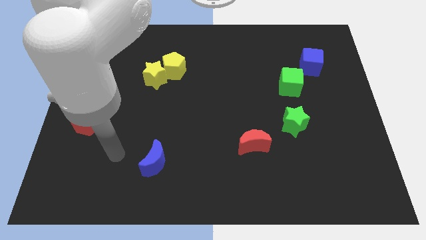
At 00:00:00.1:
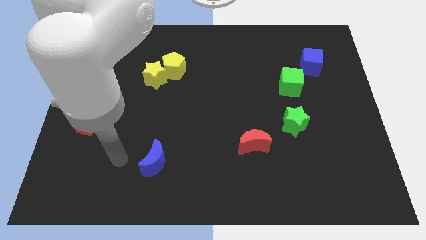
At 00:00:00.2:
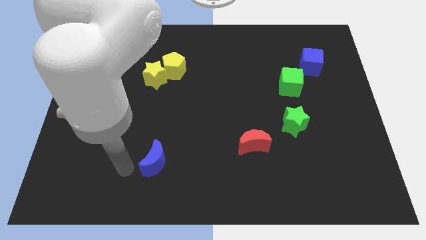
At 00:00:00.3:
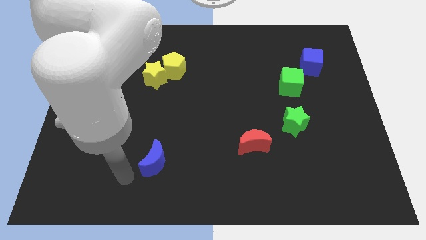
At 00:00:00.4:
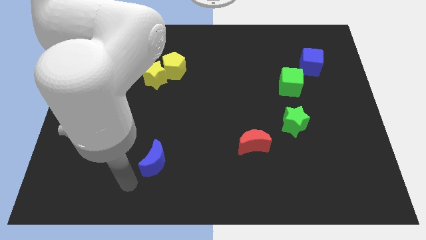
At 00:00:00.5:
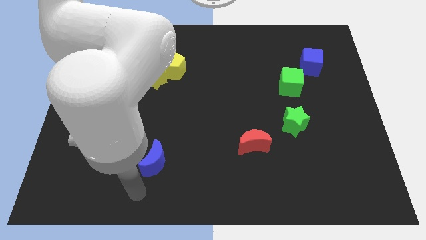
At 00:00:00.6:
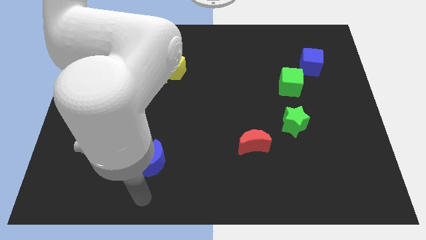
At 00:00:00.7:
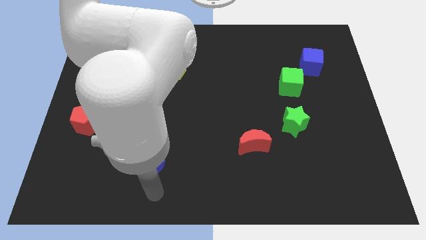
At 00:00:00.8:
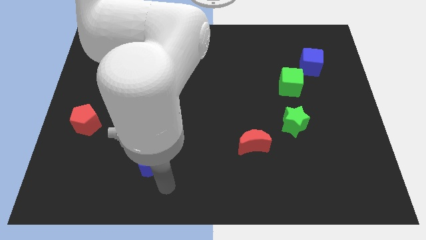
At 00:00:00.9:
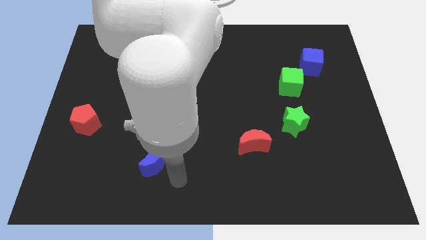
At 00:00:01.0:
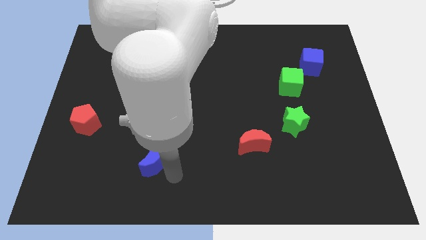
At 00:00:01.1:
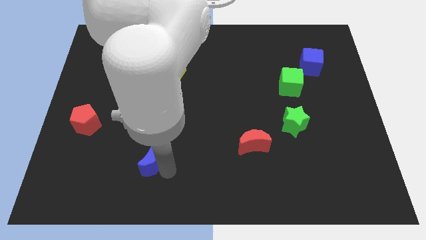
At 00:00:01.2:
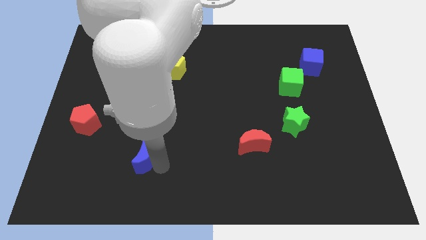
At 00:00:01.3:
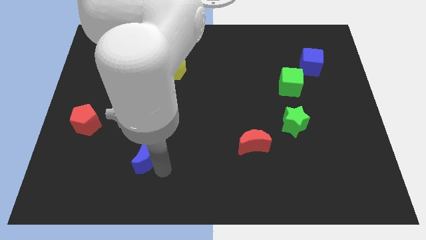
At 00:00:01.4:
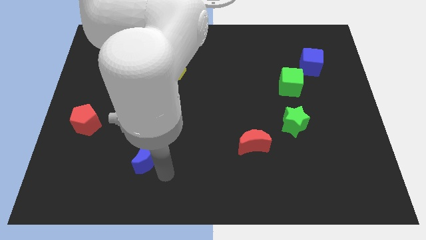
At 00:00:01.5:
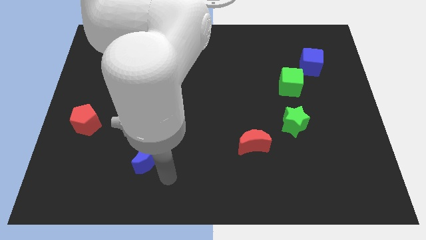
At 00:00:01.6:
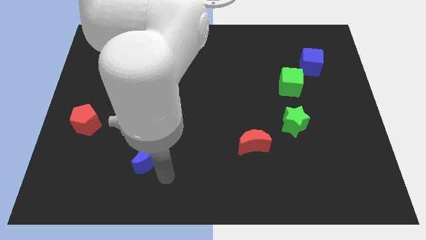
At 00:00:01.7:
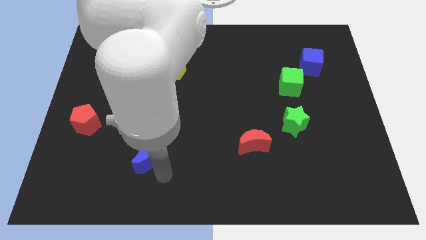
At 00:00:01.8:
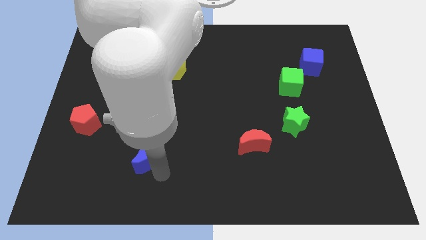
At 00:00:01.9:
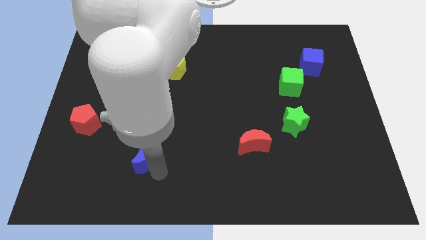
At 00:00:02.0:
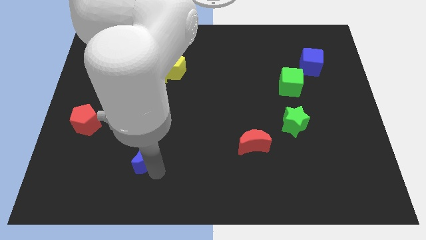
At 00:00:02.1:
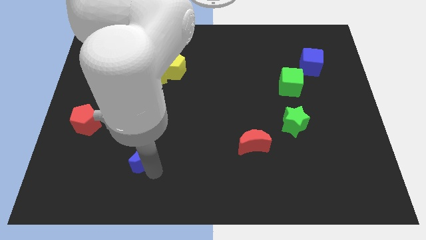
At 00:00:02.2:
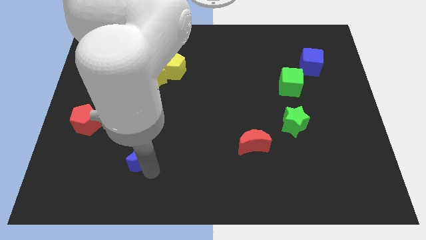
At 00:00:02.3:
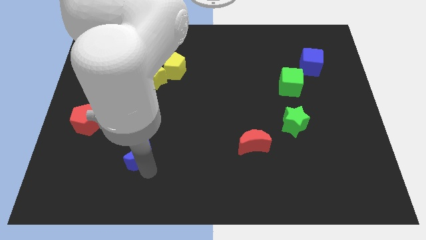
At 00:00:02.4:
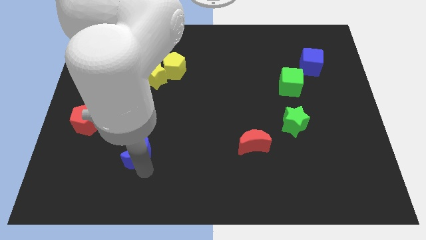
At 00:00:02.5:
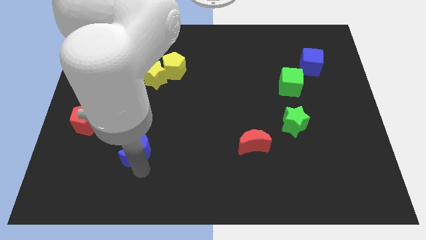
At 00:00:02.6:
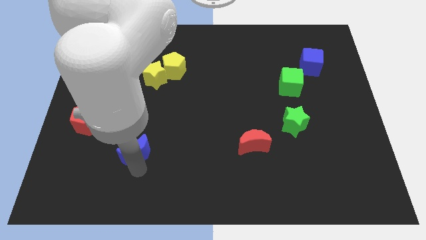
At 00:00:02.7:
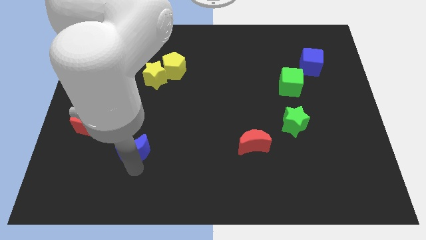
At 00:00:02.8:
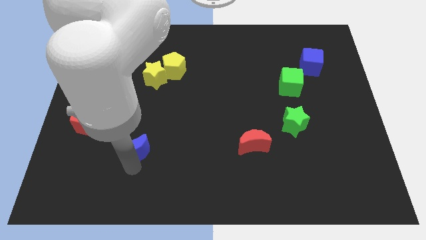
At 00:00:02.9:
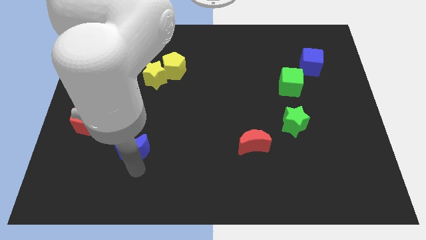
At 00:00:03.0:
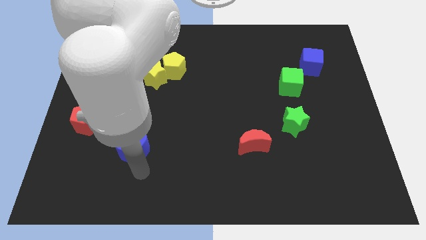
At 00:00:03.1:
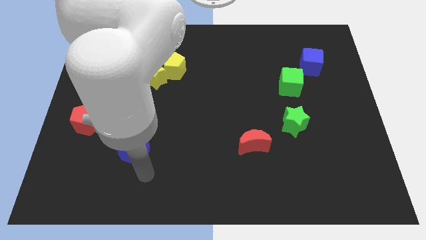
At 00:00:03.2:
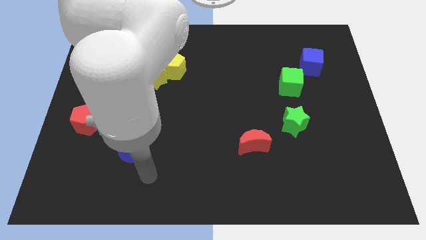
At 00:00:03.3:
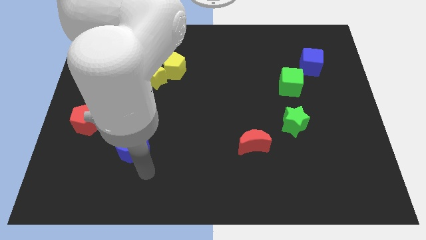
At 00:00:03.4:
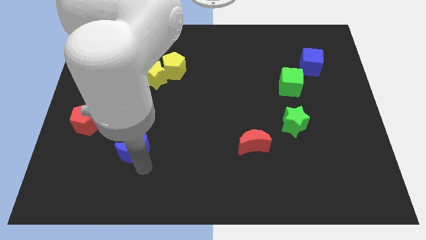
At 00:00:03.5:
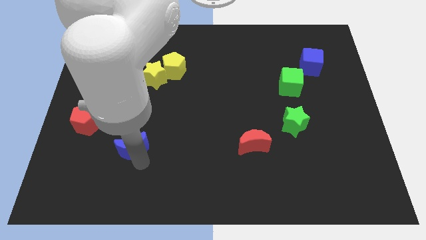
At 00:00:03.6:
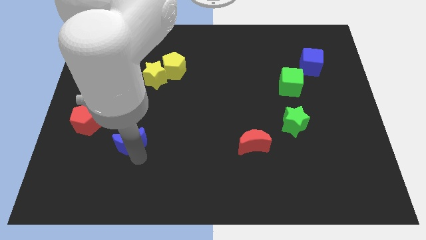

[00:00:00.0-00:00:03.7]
move the blue moon diagonally up and left somewhat

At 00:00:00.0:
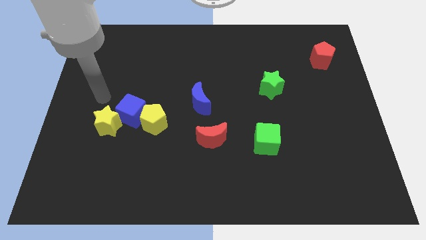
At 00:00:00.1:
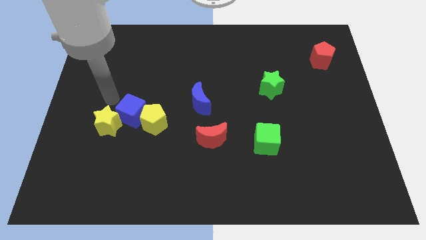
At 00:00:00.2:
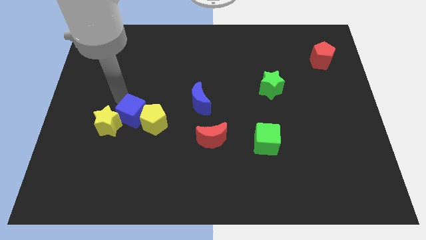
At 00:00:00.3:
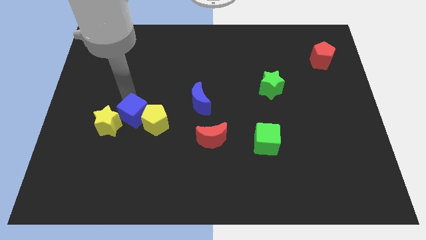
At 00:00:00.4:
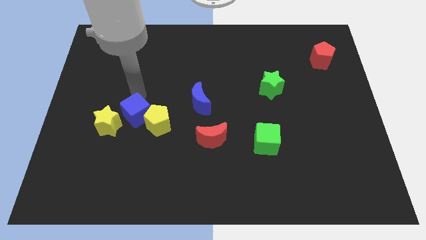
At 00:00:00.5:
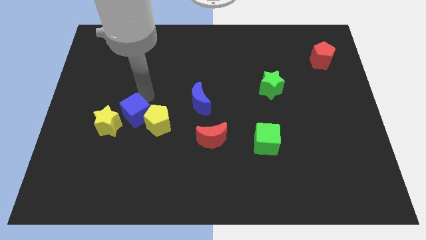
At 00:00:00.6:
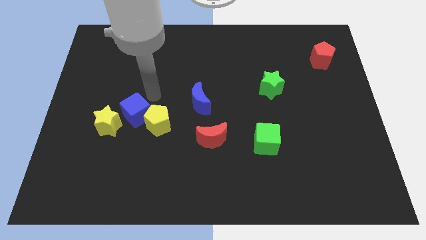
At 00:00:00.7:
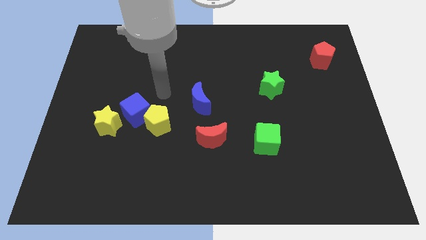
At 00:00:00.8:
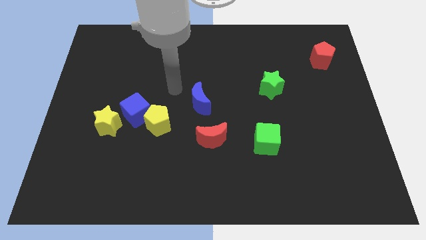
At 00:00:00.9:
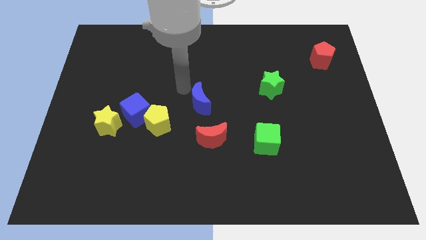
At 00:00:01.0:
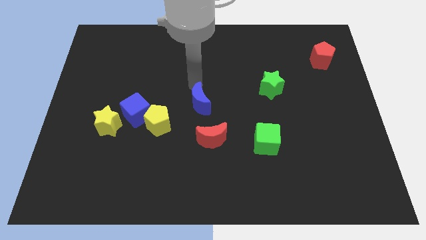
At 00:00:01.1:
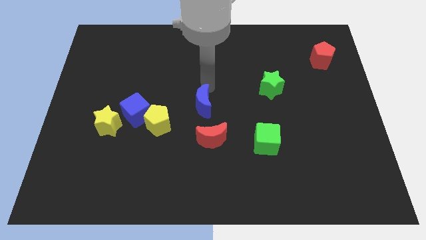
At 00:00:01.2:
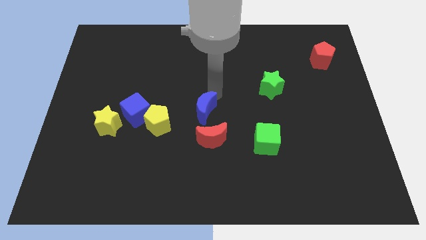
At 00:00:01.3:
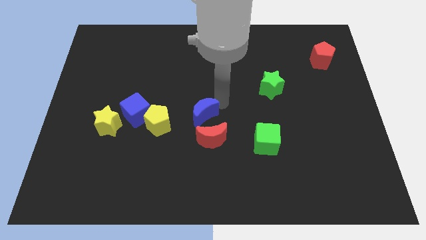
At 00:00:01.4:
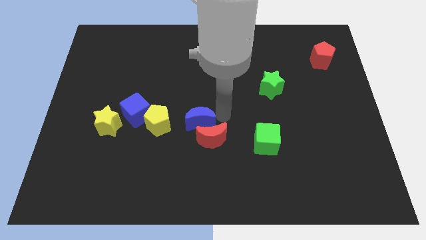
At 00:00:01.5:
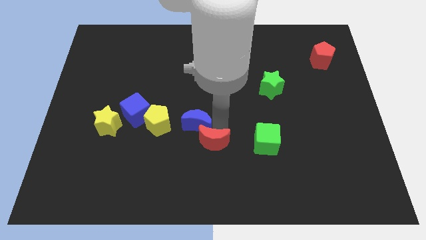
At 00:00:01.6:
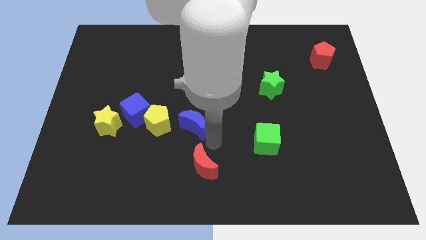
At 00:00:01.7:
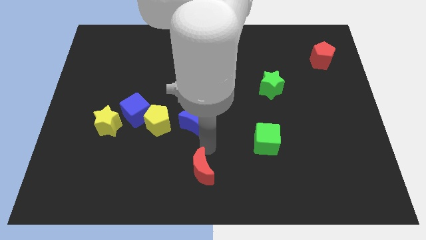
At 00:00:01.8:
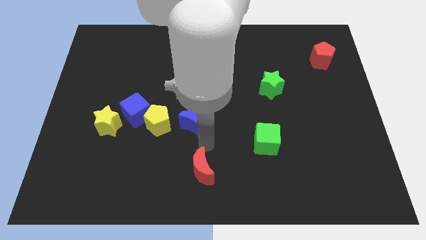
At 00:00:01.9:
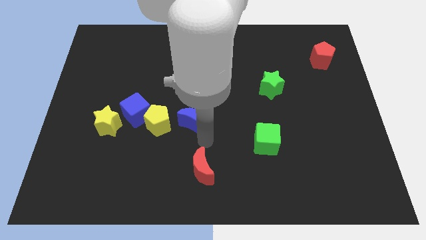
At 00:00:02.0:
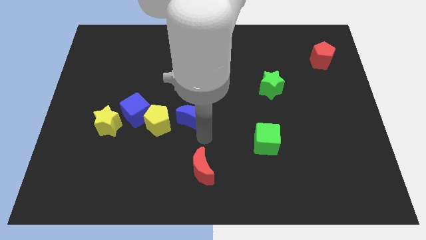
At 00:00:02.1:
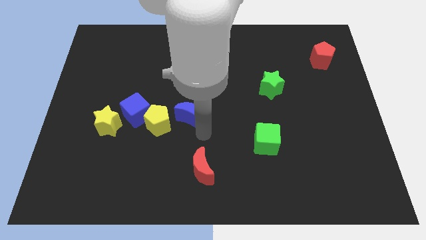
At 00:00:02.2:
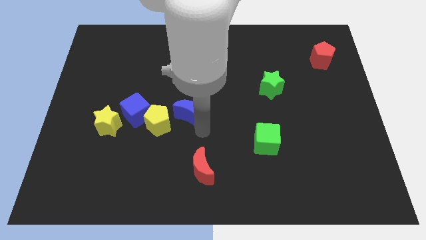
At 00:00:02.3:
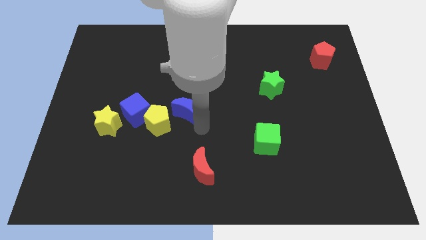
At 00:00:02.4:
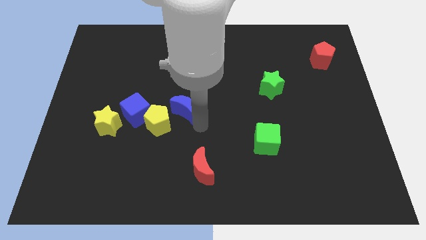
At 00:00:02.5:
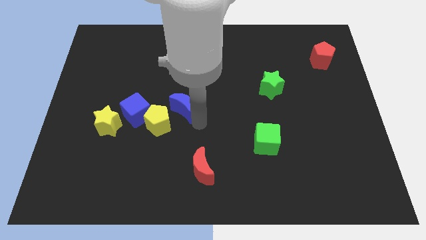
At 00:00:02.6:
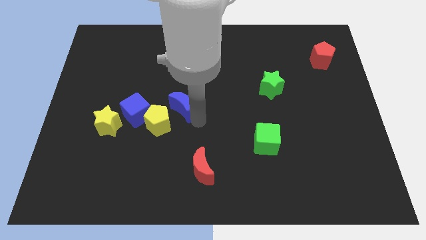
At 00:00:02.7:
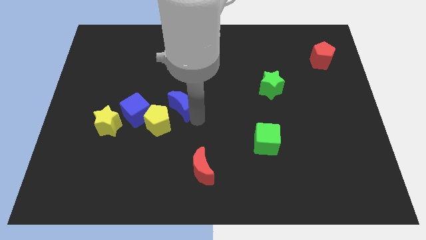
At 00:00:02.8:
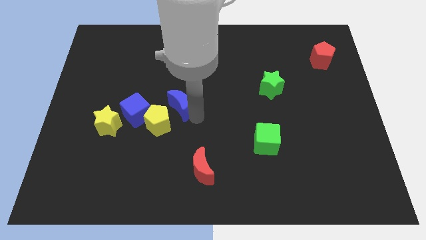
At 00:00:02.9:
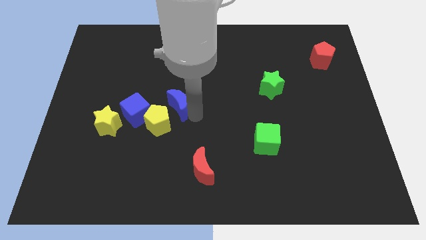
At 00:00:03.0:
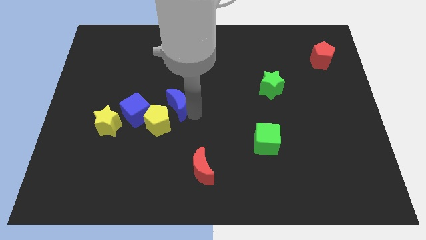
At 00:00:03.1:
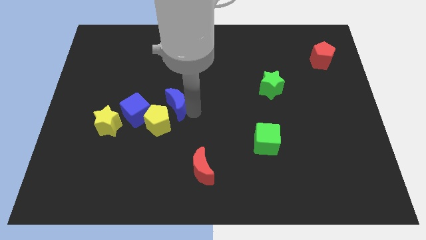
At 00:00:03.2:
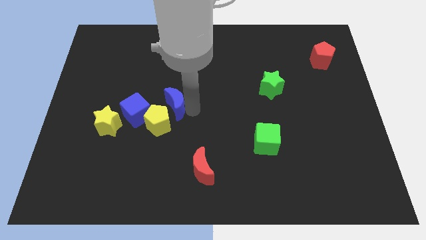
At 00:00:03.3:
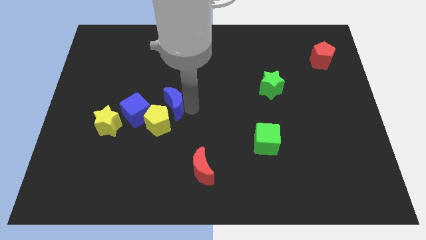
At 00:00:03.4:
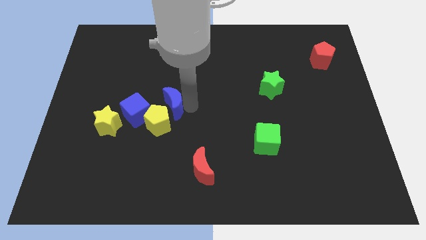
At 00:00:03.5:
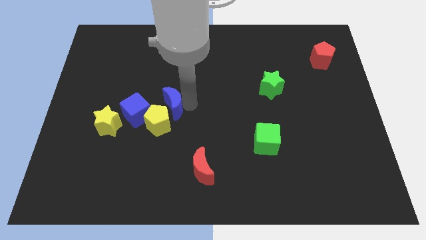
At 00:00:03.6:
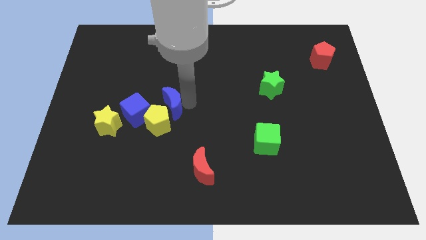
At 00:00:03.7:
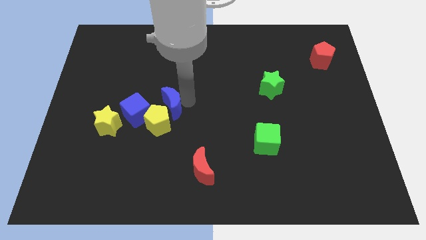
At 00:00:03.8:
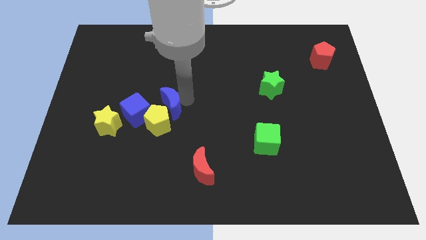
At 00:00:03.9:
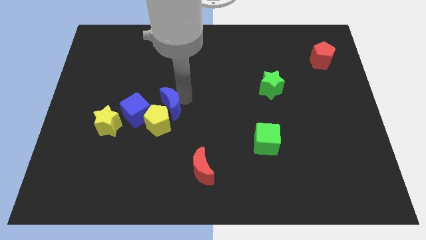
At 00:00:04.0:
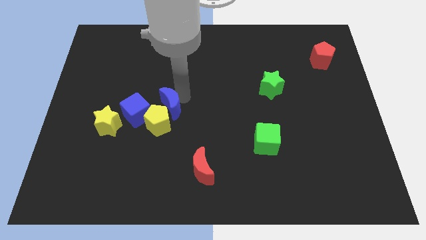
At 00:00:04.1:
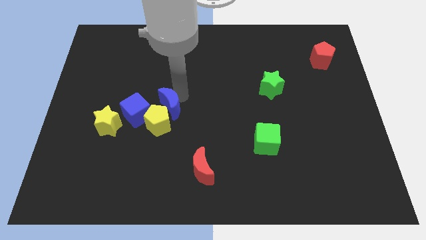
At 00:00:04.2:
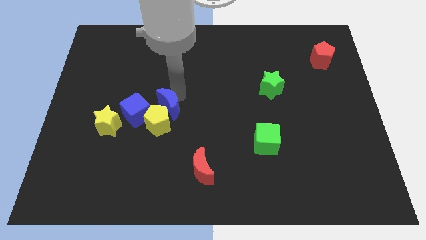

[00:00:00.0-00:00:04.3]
slide the blue moon to the left slightly
